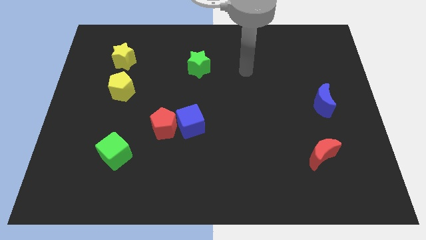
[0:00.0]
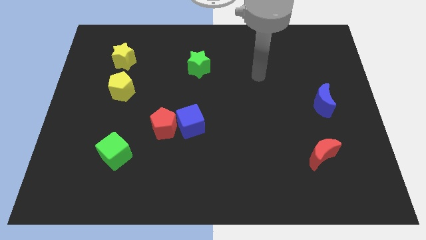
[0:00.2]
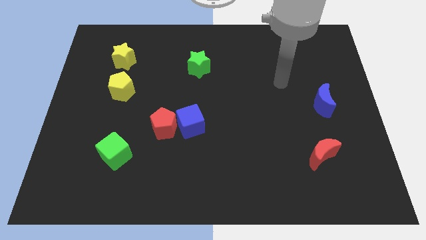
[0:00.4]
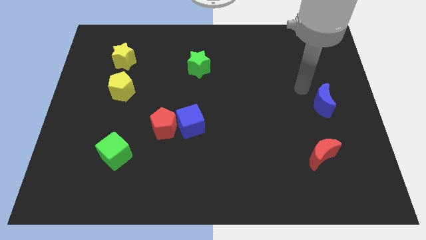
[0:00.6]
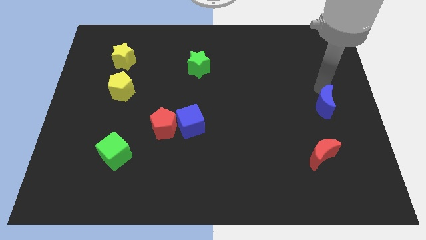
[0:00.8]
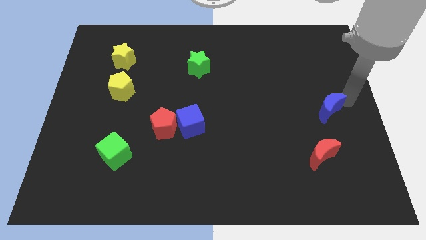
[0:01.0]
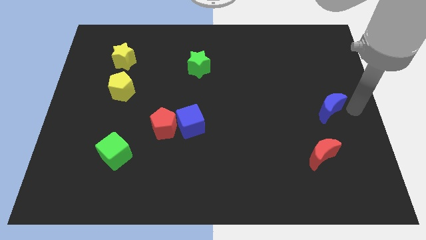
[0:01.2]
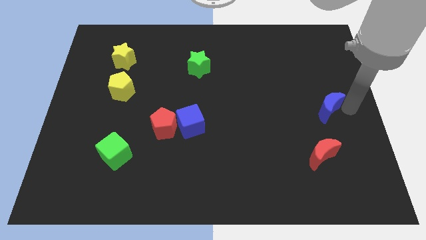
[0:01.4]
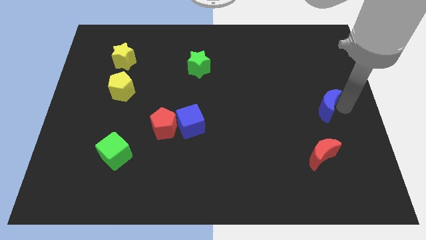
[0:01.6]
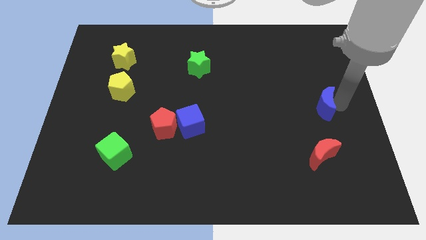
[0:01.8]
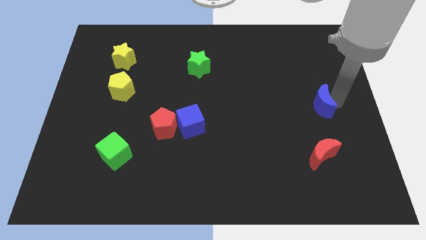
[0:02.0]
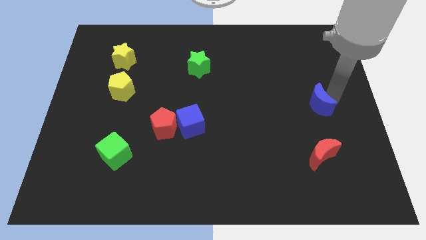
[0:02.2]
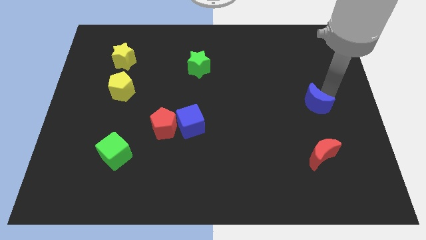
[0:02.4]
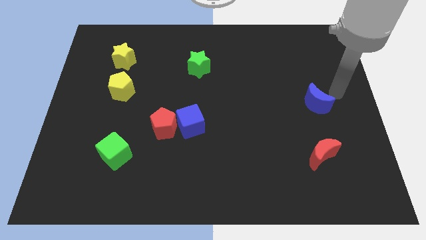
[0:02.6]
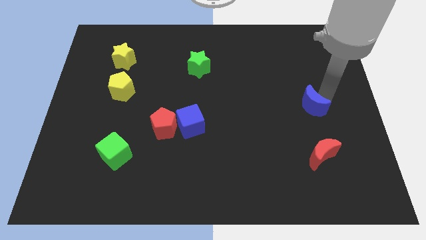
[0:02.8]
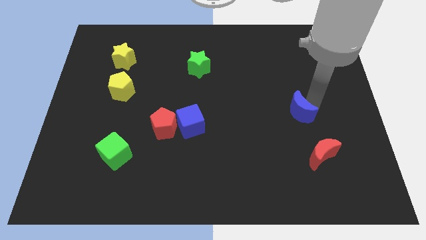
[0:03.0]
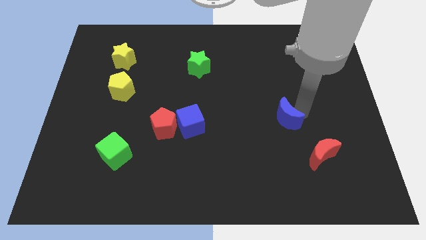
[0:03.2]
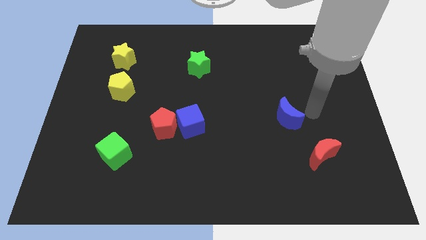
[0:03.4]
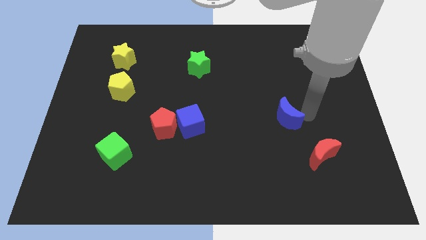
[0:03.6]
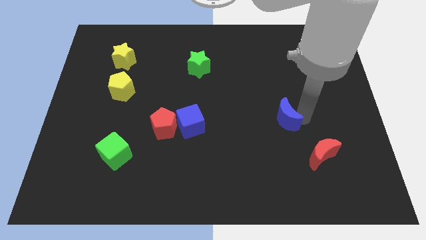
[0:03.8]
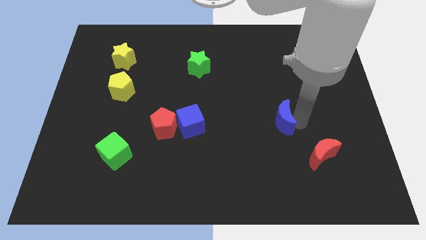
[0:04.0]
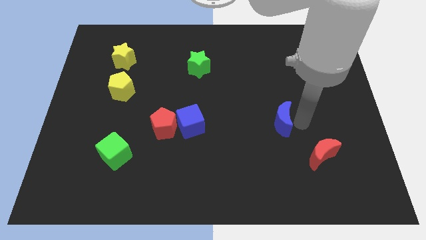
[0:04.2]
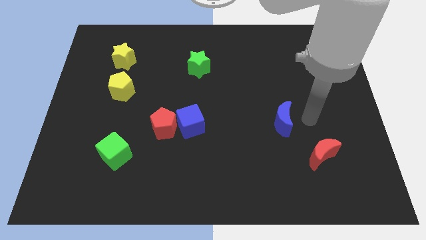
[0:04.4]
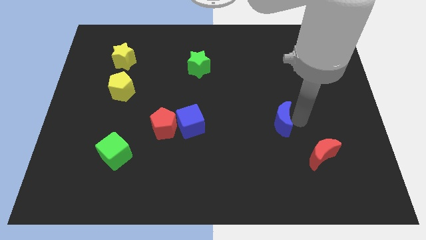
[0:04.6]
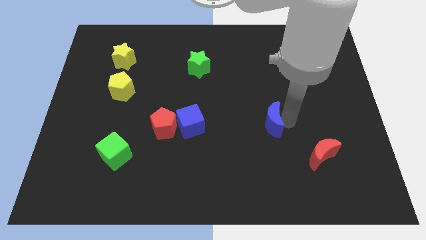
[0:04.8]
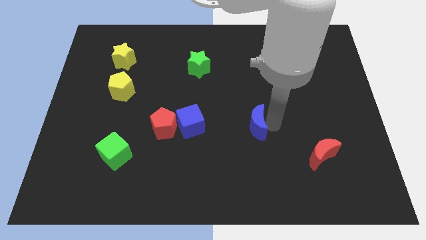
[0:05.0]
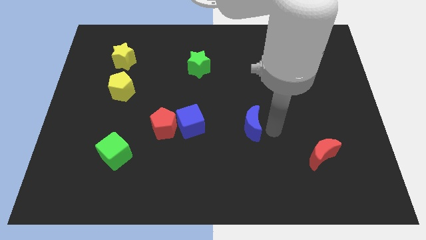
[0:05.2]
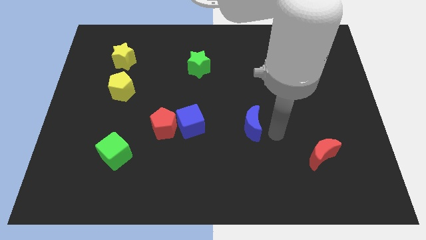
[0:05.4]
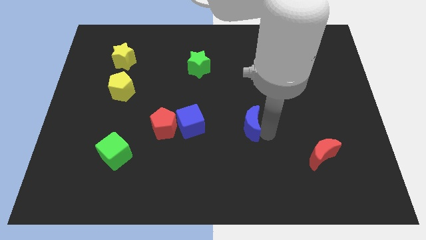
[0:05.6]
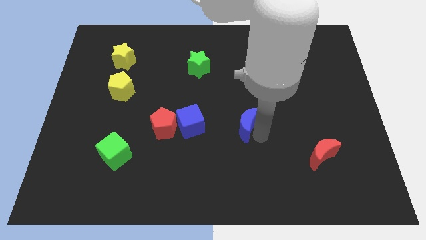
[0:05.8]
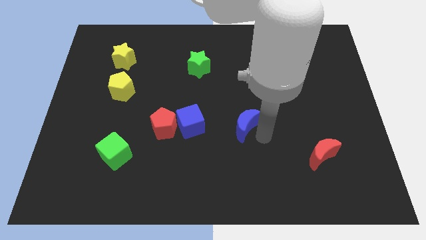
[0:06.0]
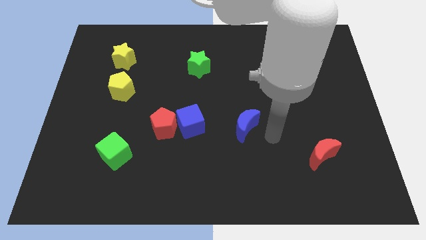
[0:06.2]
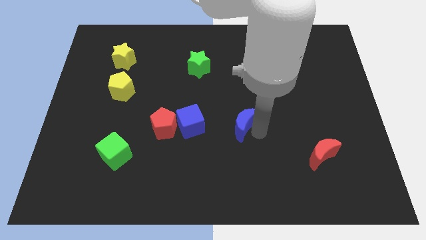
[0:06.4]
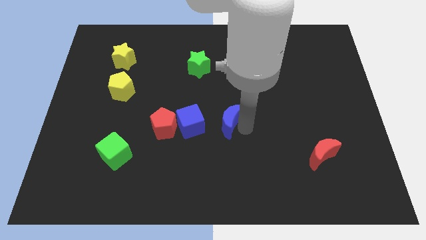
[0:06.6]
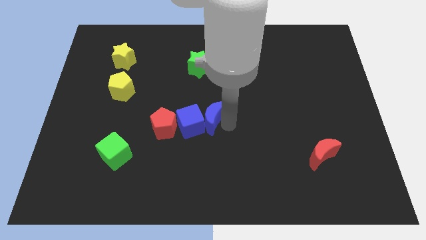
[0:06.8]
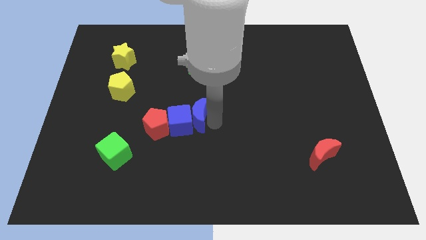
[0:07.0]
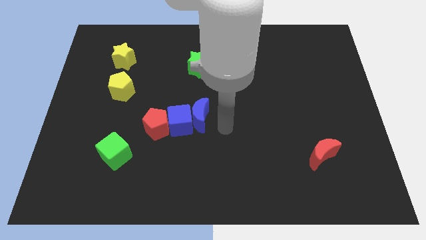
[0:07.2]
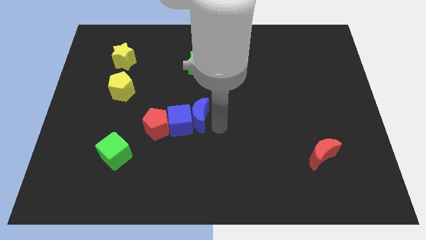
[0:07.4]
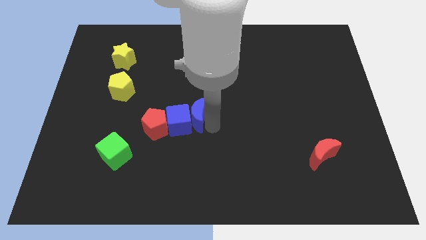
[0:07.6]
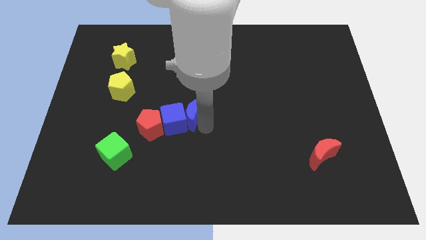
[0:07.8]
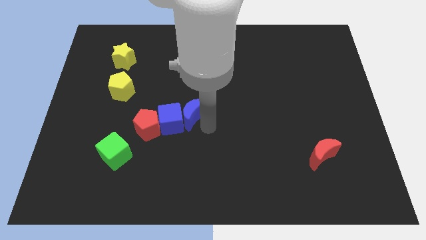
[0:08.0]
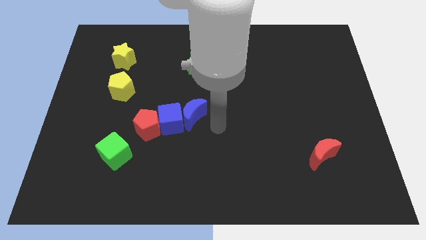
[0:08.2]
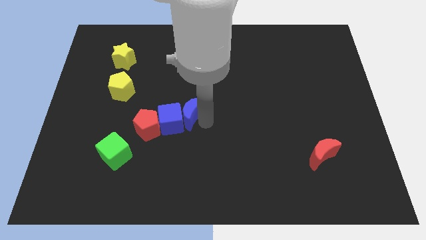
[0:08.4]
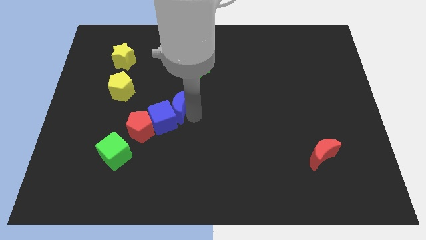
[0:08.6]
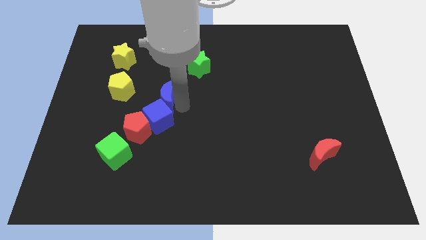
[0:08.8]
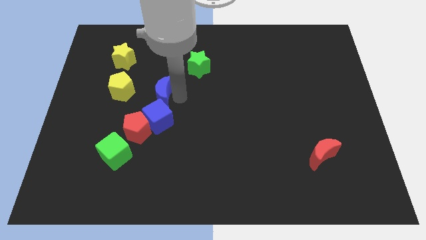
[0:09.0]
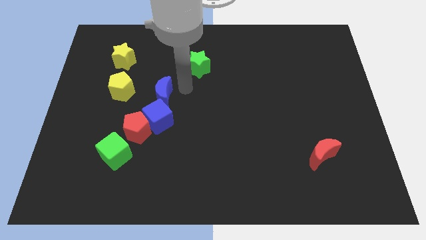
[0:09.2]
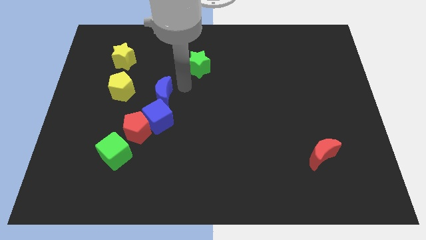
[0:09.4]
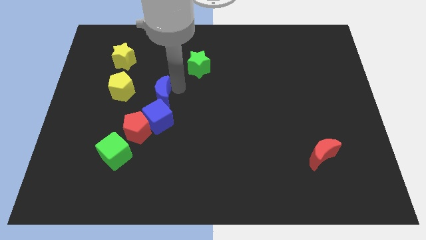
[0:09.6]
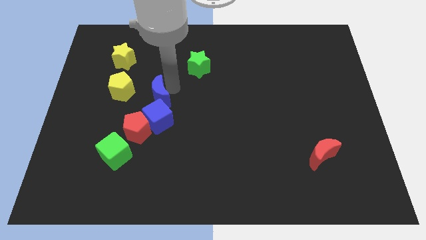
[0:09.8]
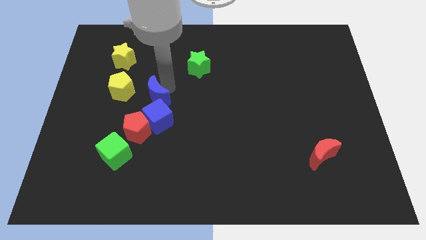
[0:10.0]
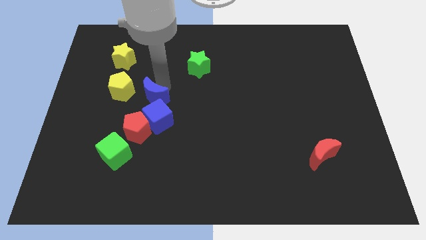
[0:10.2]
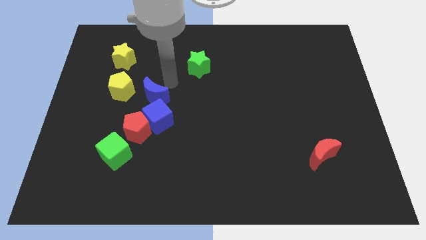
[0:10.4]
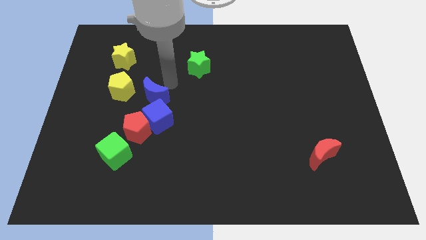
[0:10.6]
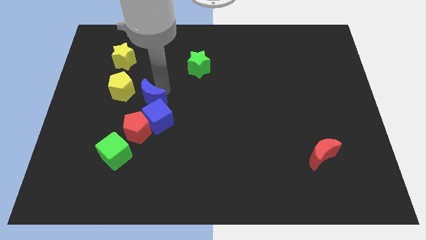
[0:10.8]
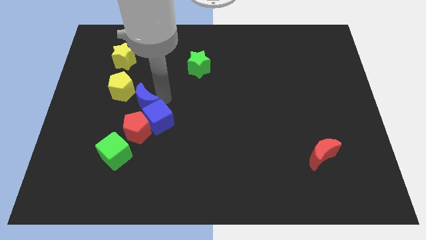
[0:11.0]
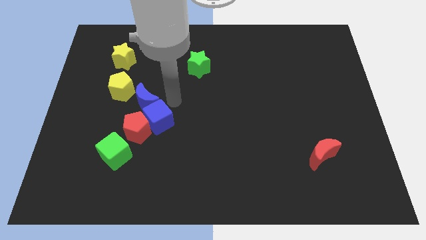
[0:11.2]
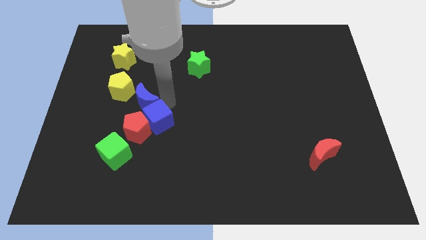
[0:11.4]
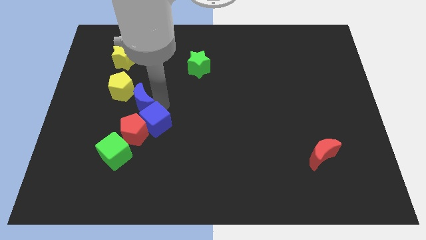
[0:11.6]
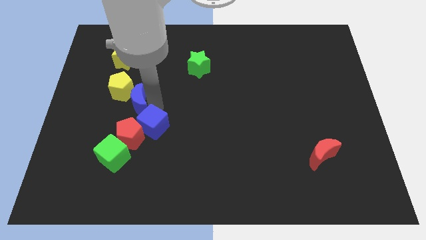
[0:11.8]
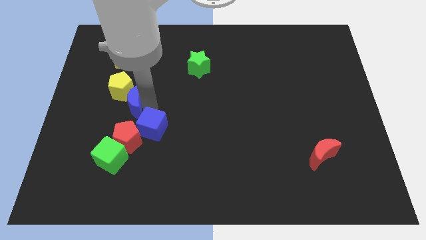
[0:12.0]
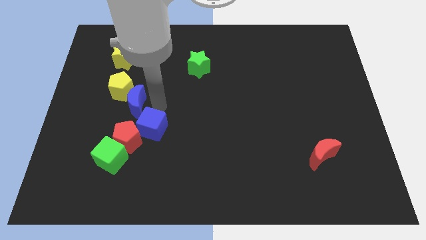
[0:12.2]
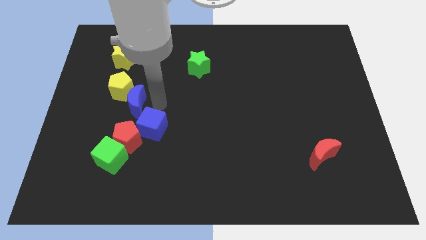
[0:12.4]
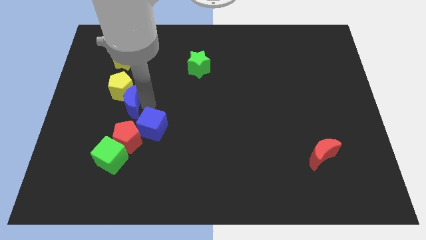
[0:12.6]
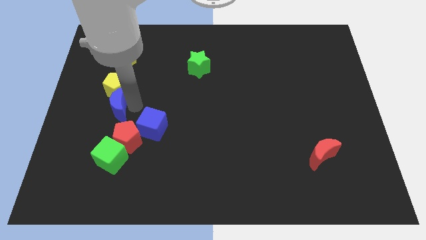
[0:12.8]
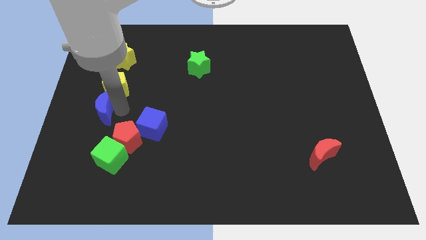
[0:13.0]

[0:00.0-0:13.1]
slide the blue moon to the center left
